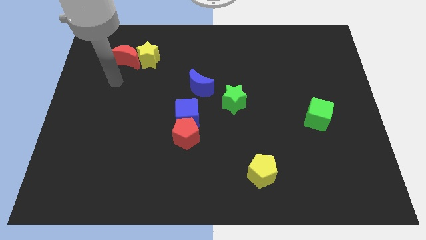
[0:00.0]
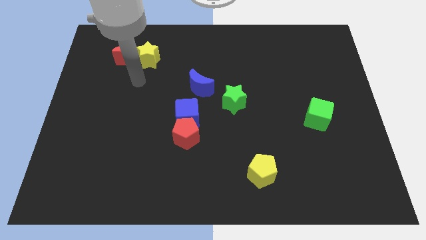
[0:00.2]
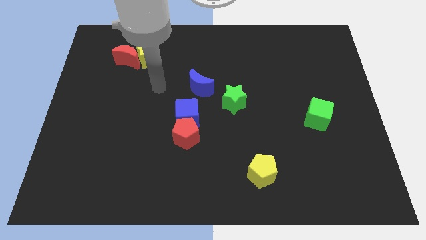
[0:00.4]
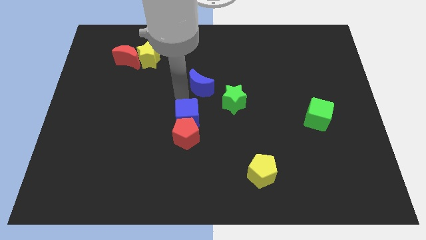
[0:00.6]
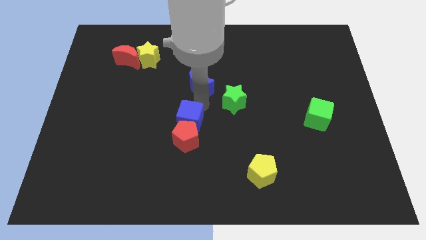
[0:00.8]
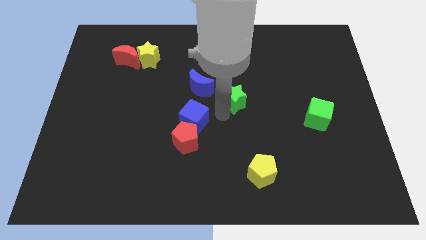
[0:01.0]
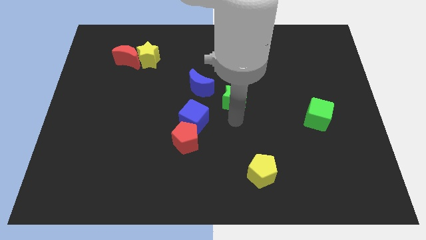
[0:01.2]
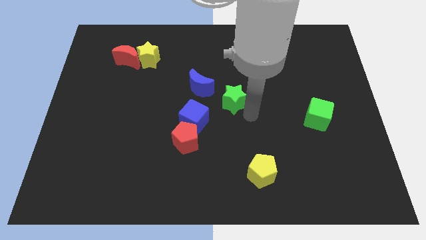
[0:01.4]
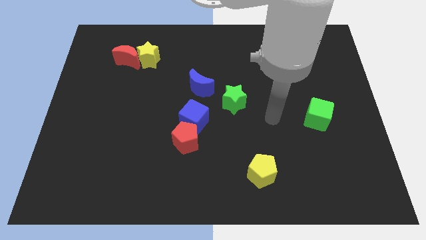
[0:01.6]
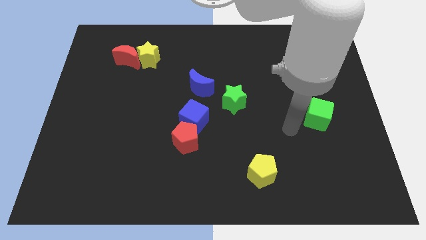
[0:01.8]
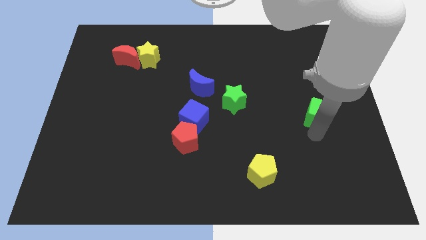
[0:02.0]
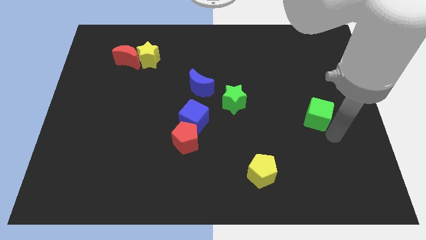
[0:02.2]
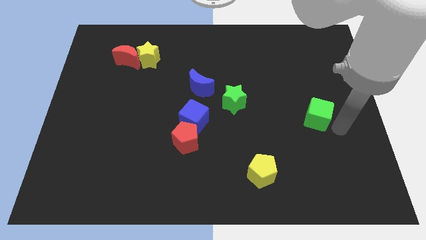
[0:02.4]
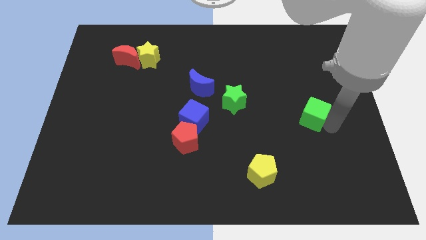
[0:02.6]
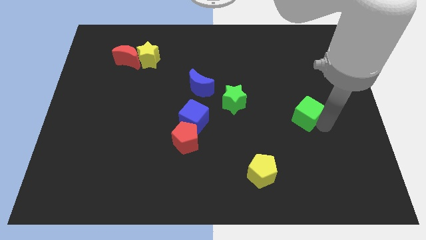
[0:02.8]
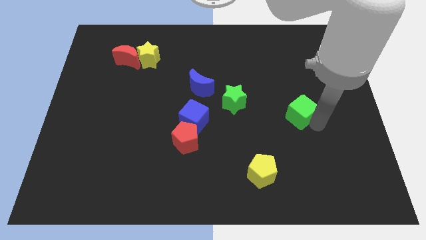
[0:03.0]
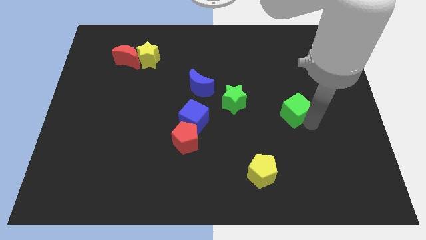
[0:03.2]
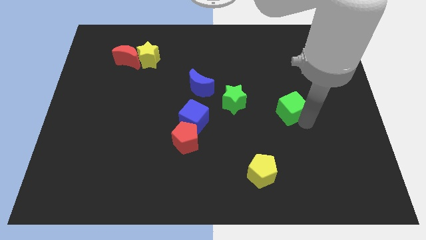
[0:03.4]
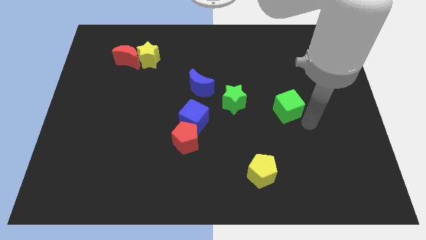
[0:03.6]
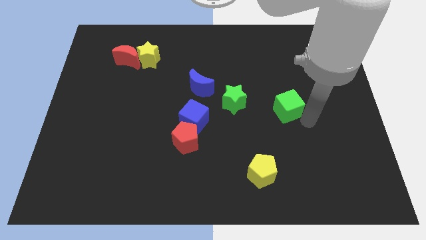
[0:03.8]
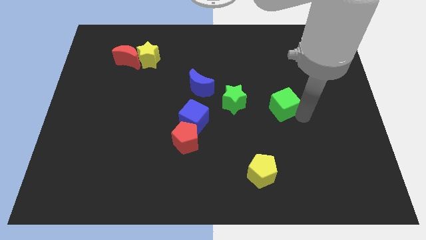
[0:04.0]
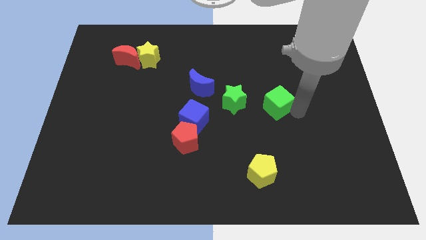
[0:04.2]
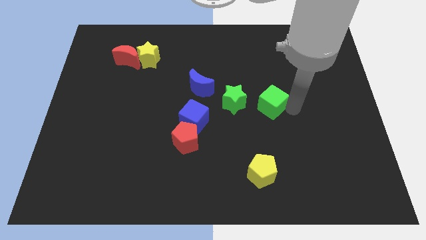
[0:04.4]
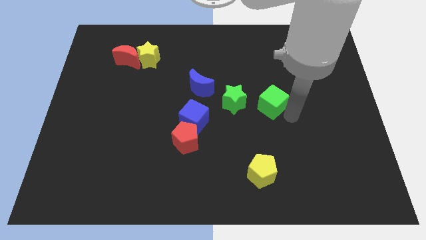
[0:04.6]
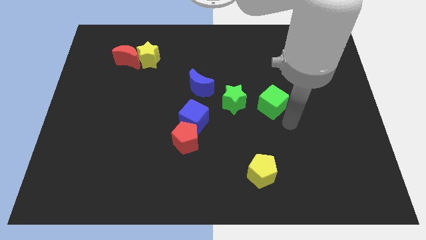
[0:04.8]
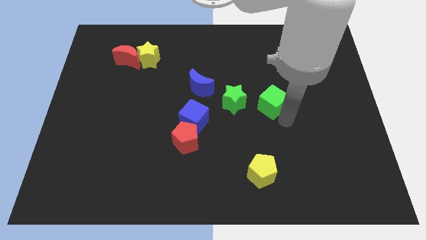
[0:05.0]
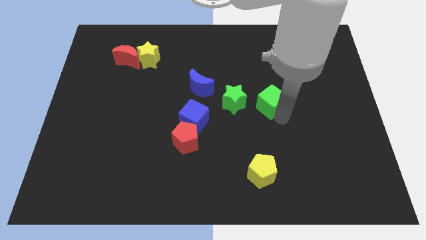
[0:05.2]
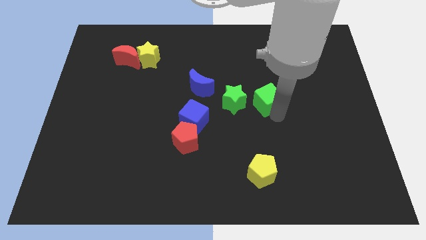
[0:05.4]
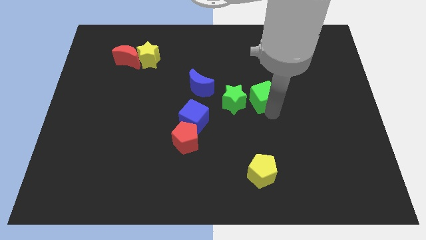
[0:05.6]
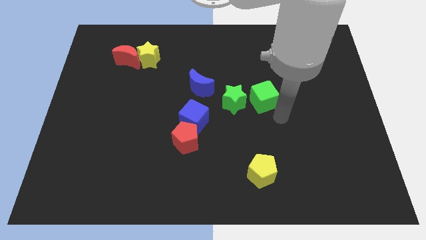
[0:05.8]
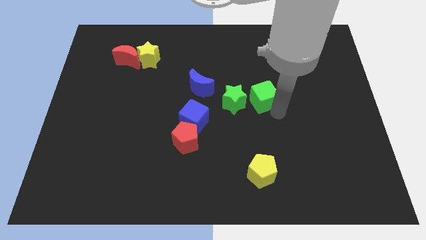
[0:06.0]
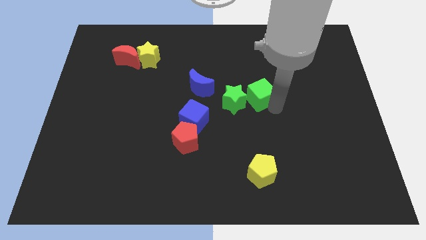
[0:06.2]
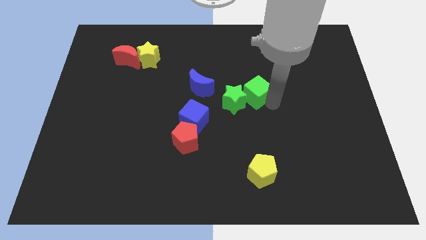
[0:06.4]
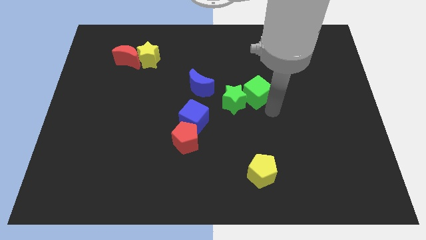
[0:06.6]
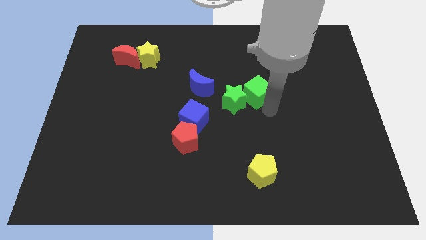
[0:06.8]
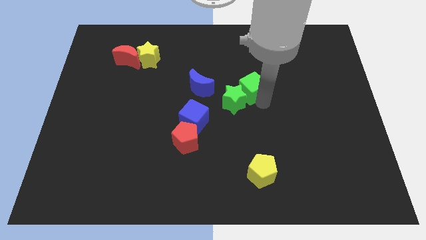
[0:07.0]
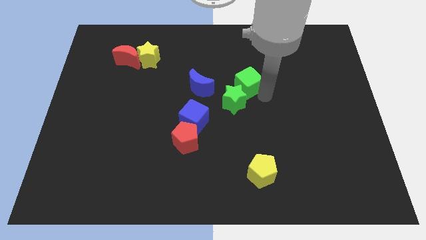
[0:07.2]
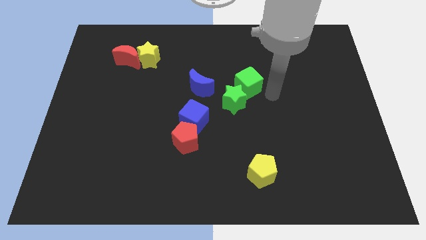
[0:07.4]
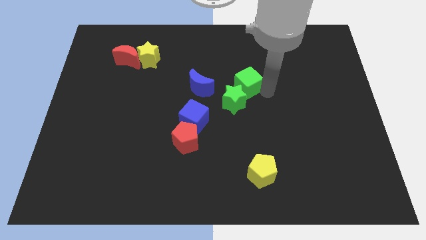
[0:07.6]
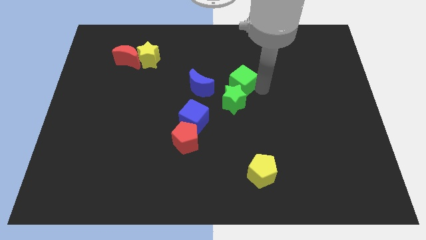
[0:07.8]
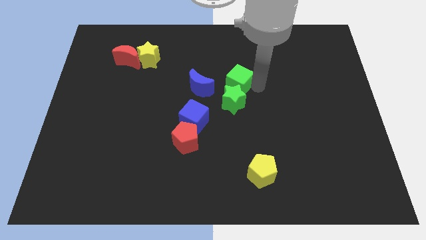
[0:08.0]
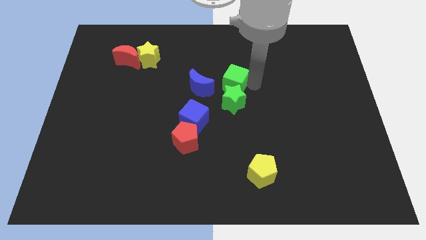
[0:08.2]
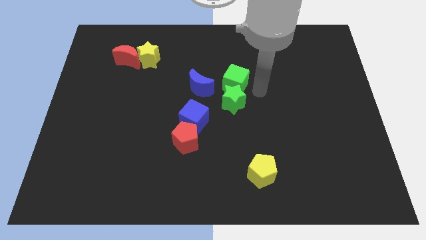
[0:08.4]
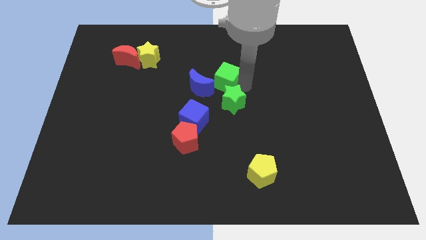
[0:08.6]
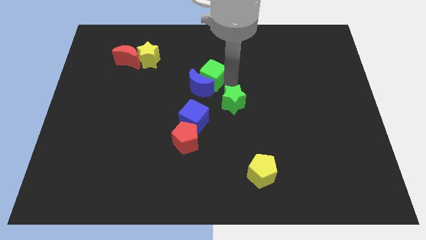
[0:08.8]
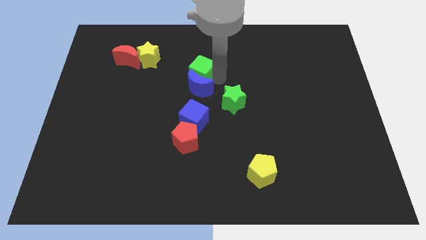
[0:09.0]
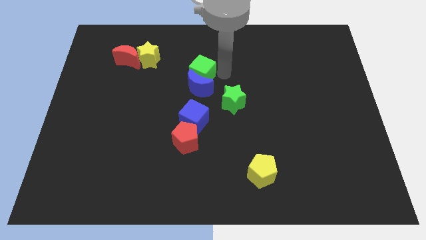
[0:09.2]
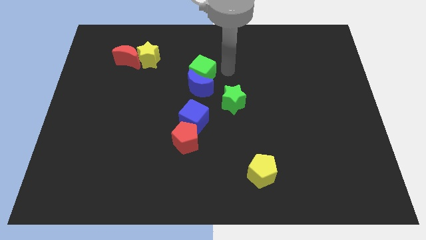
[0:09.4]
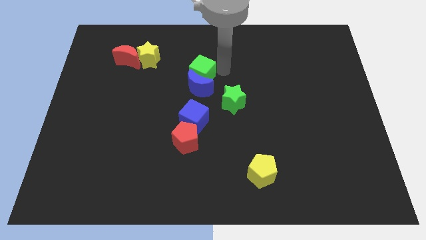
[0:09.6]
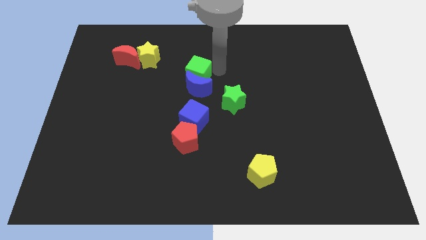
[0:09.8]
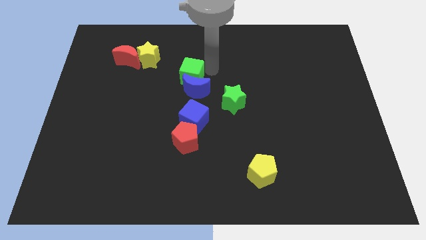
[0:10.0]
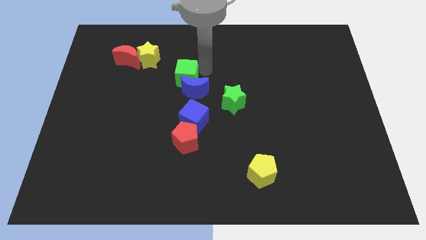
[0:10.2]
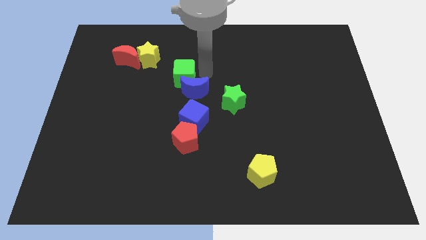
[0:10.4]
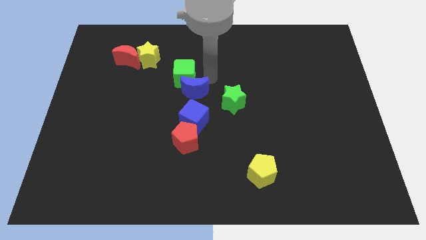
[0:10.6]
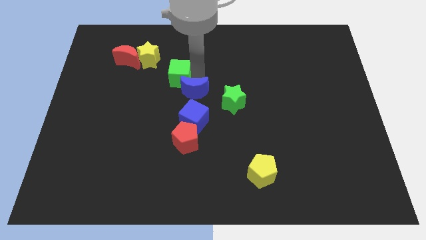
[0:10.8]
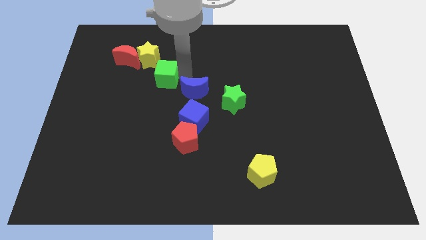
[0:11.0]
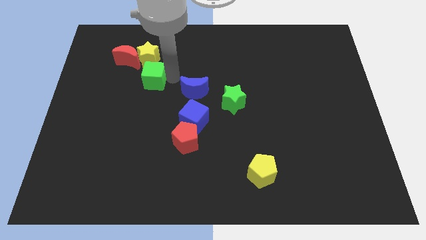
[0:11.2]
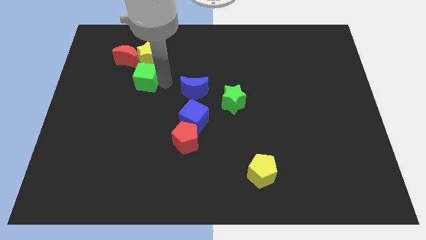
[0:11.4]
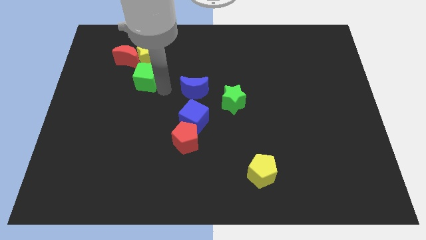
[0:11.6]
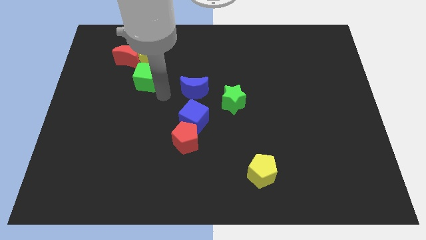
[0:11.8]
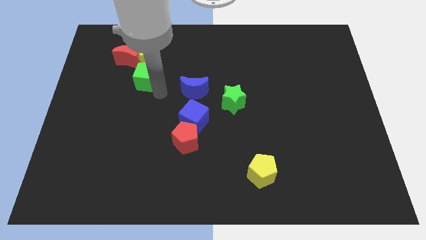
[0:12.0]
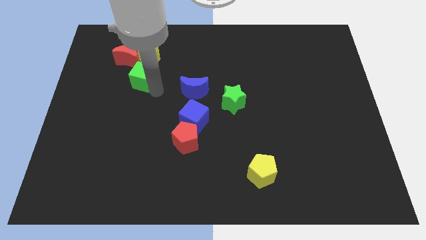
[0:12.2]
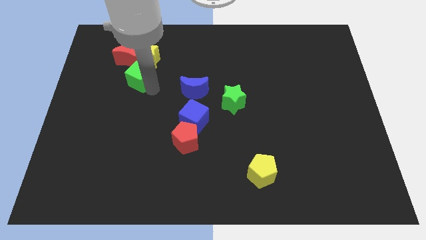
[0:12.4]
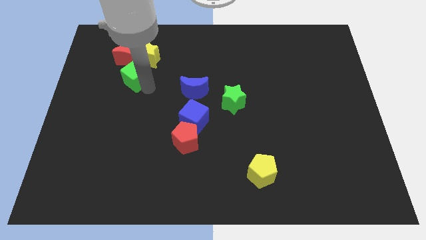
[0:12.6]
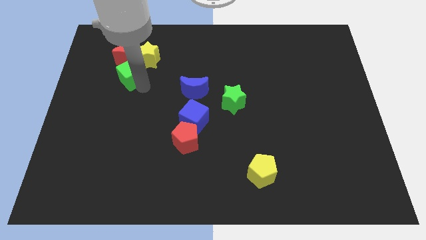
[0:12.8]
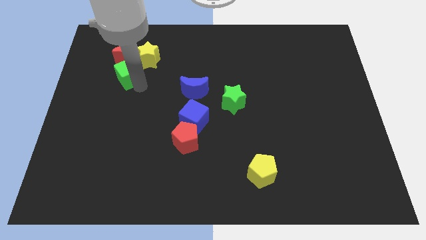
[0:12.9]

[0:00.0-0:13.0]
slide the green cube to the red moon

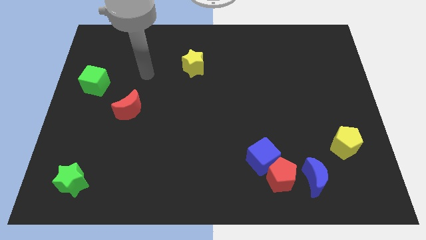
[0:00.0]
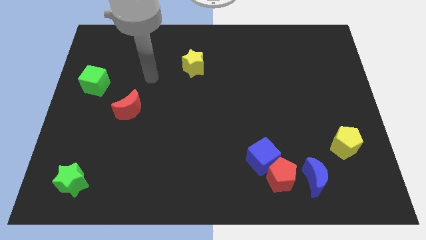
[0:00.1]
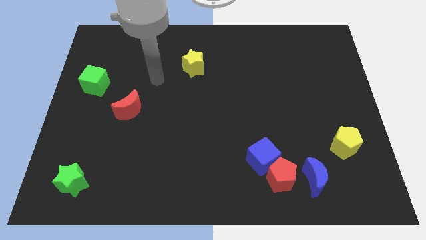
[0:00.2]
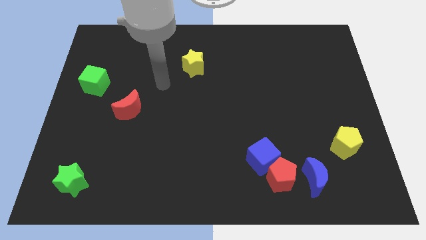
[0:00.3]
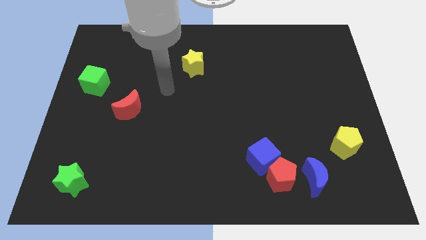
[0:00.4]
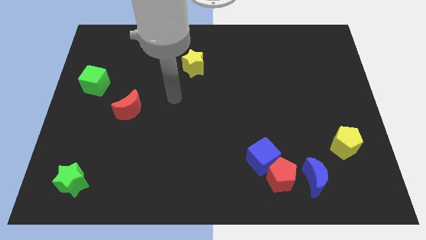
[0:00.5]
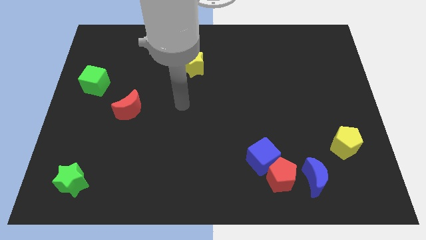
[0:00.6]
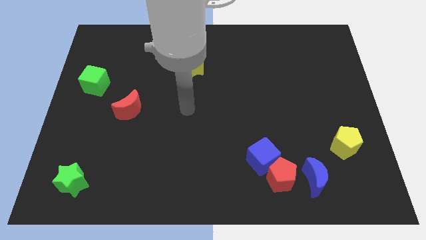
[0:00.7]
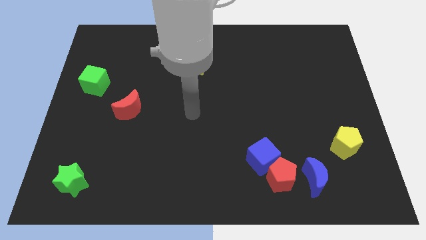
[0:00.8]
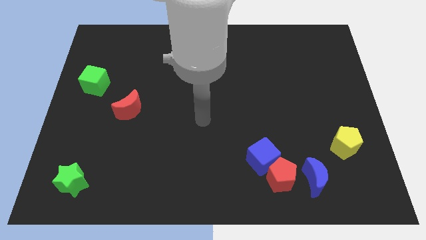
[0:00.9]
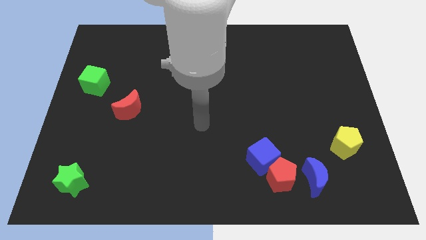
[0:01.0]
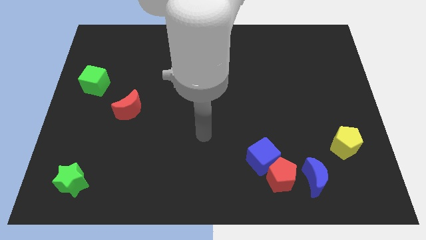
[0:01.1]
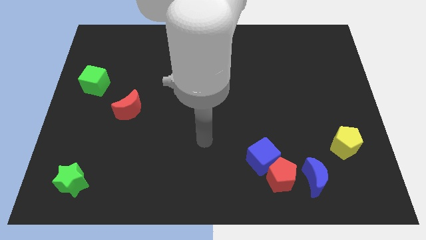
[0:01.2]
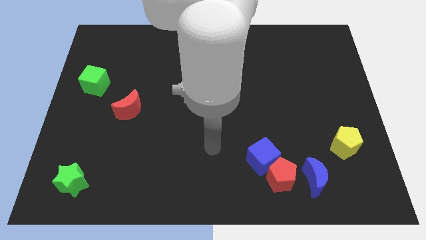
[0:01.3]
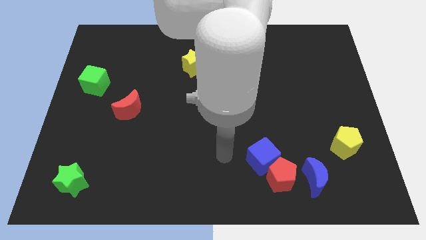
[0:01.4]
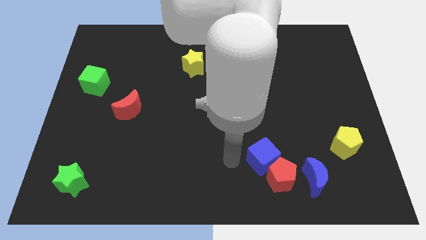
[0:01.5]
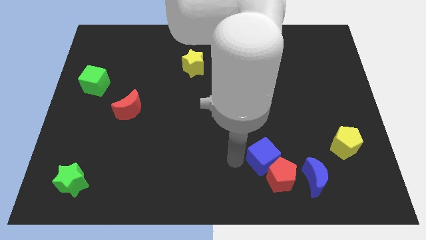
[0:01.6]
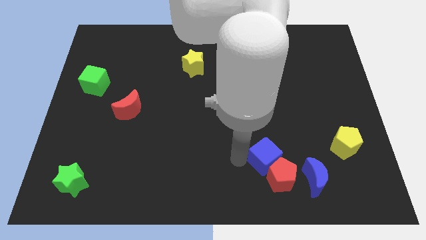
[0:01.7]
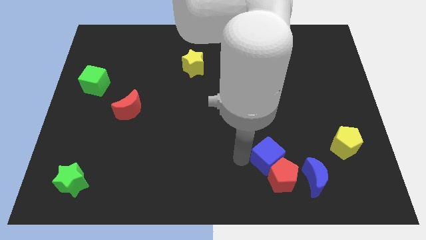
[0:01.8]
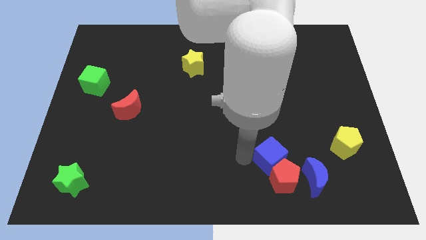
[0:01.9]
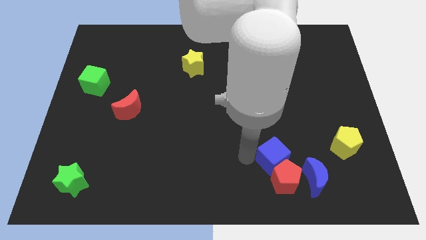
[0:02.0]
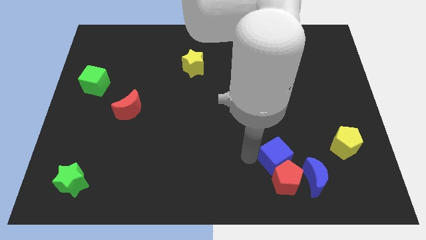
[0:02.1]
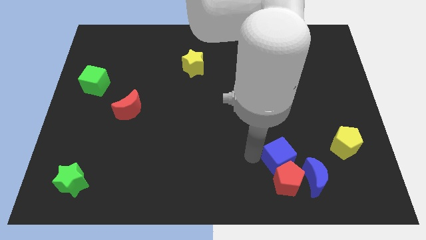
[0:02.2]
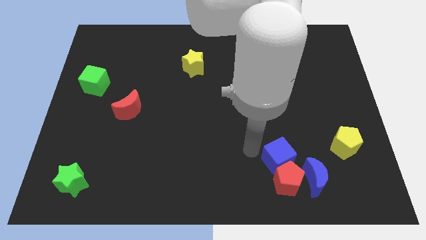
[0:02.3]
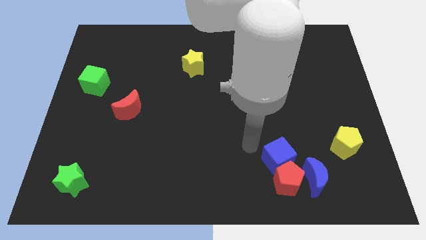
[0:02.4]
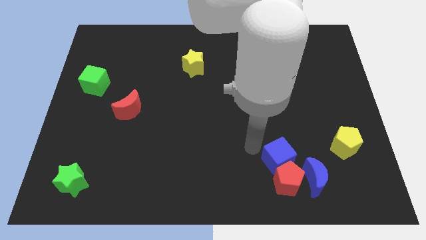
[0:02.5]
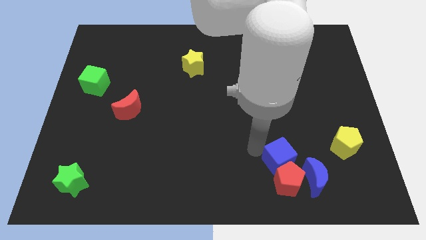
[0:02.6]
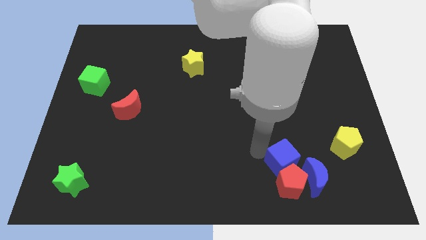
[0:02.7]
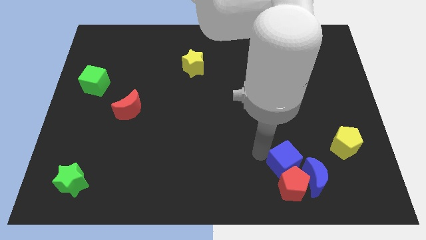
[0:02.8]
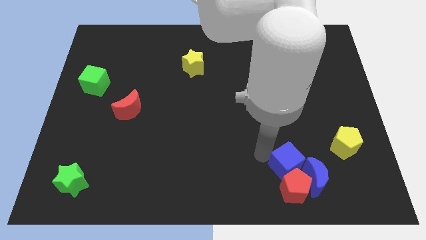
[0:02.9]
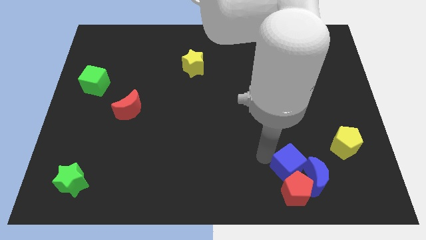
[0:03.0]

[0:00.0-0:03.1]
push the blue cube close to the blue moon
